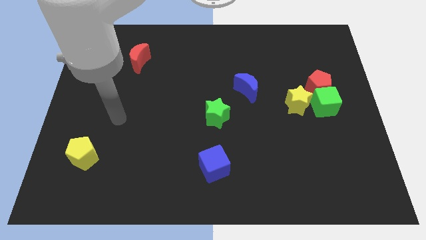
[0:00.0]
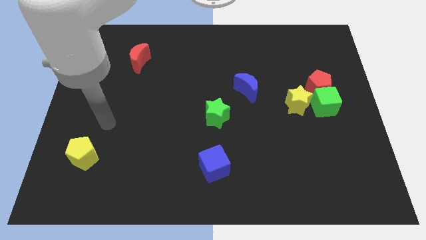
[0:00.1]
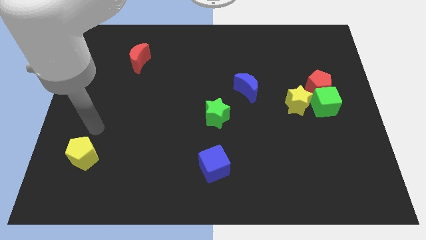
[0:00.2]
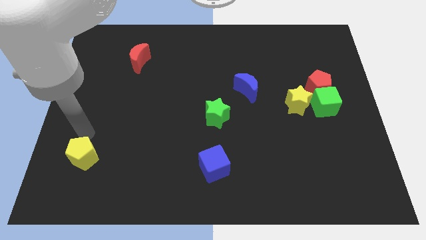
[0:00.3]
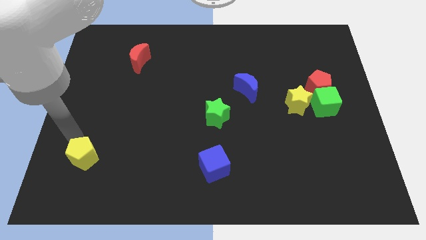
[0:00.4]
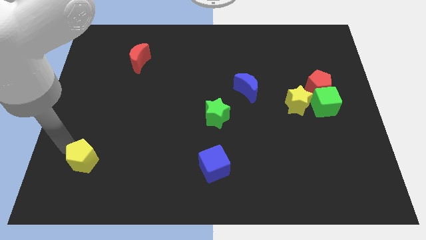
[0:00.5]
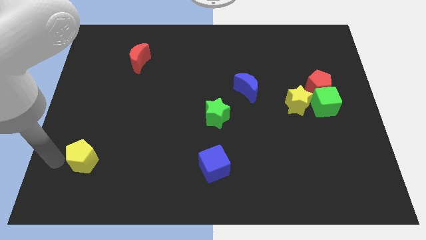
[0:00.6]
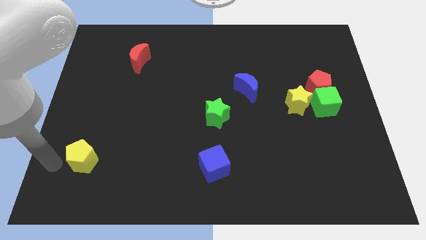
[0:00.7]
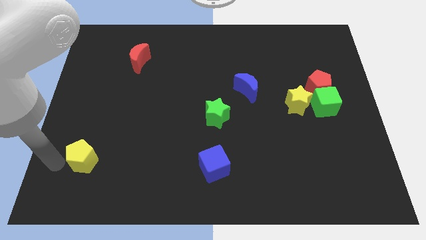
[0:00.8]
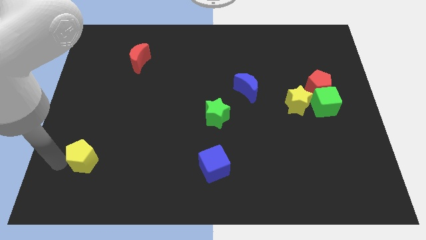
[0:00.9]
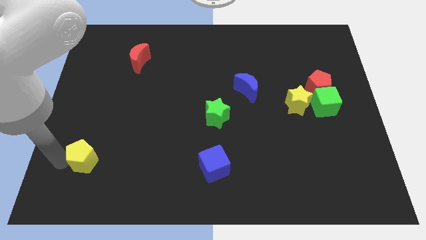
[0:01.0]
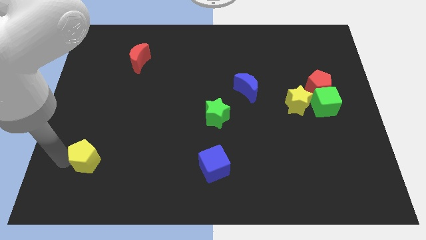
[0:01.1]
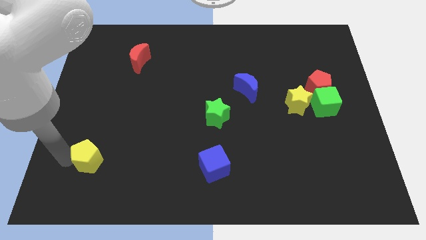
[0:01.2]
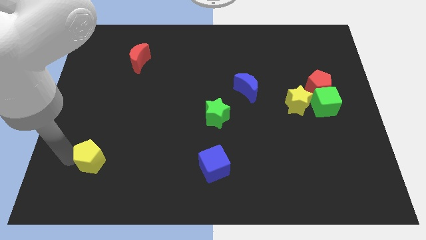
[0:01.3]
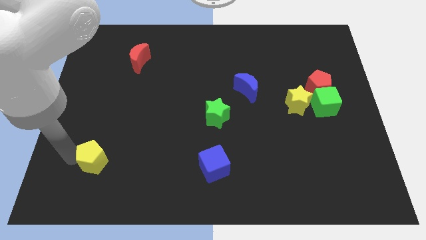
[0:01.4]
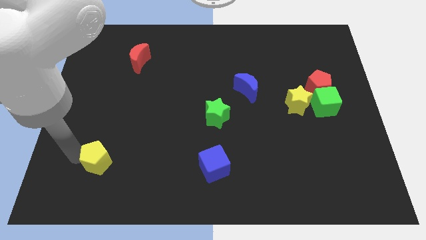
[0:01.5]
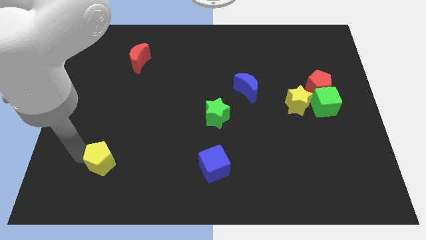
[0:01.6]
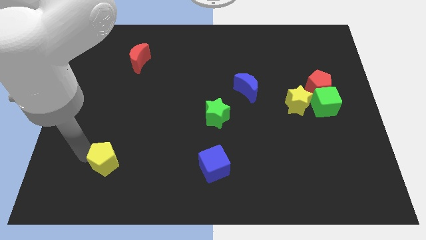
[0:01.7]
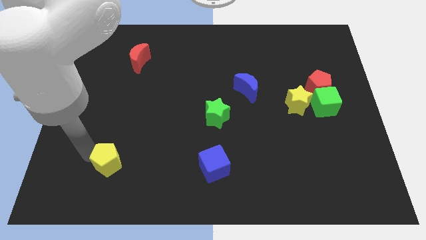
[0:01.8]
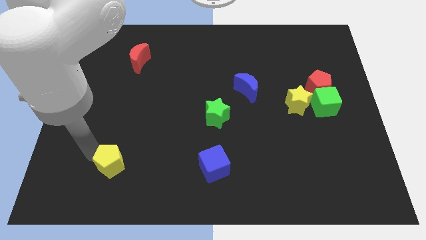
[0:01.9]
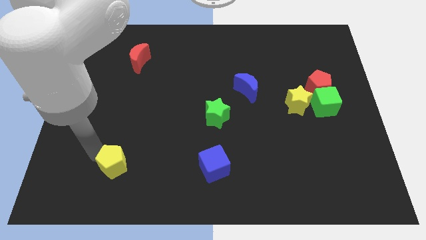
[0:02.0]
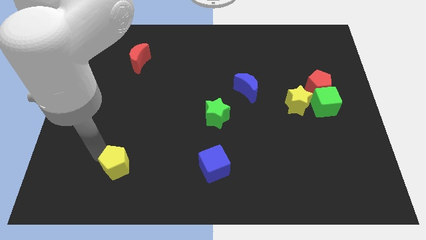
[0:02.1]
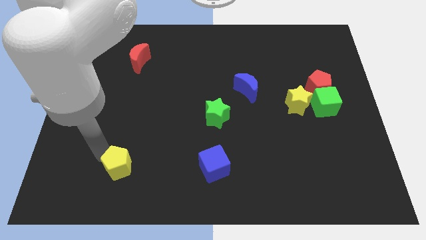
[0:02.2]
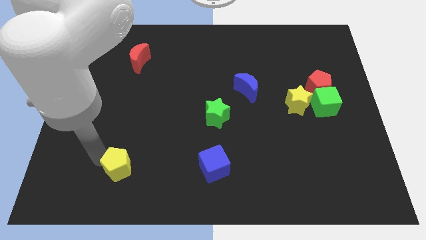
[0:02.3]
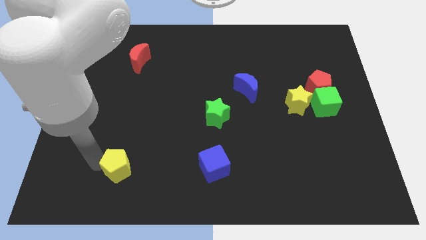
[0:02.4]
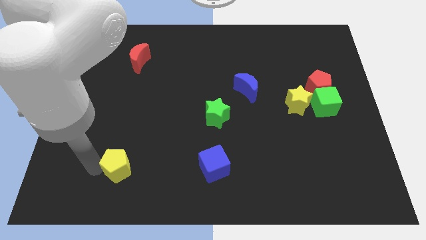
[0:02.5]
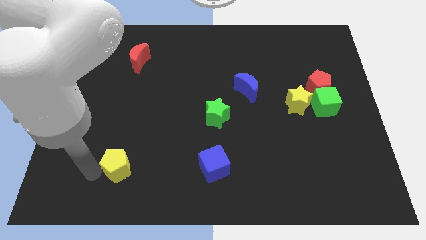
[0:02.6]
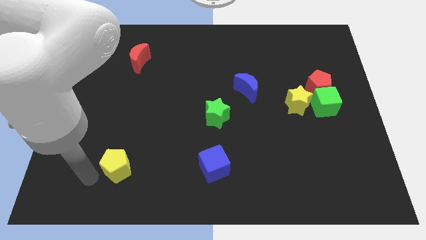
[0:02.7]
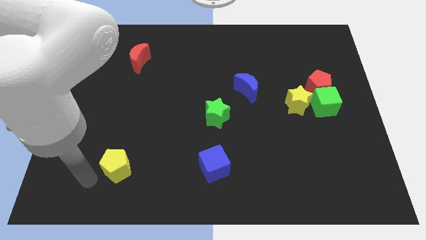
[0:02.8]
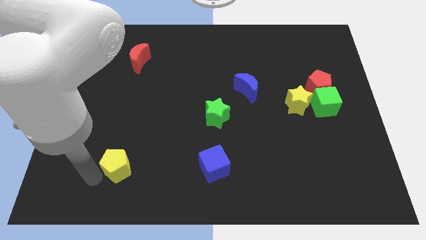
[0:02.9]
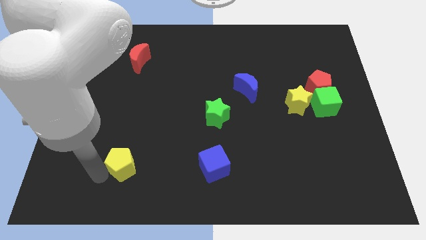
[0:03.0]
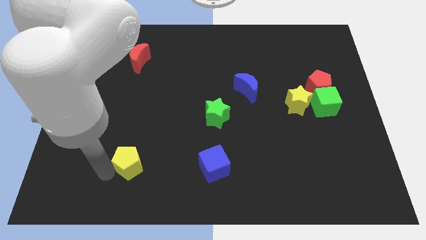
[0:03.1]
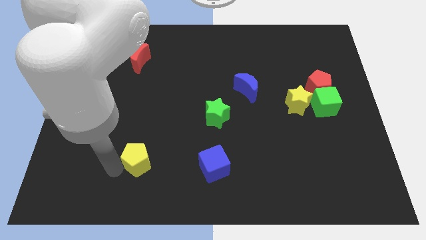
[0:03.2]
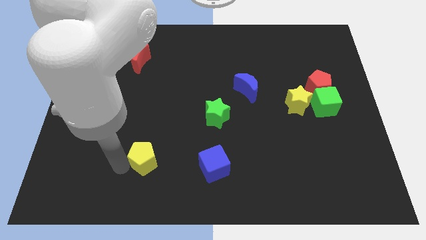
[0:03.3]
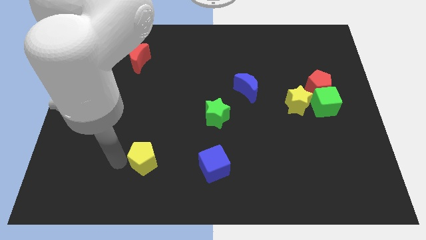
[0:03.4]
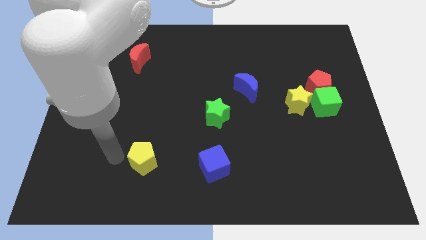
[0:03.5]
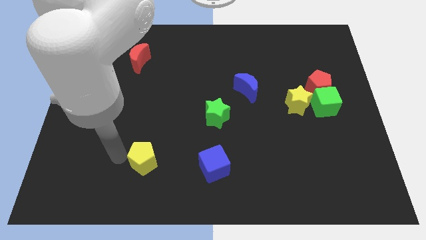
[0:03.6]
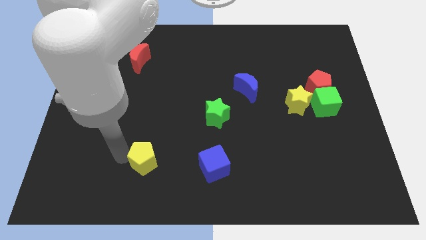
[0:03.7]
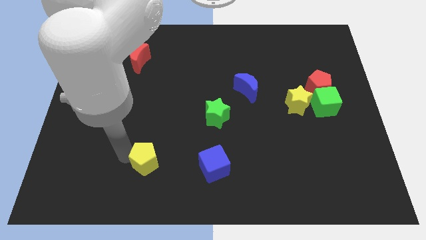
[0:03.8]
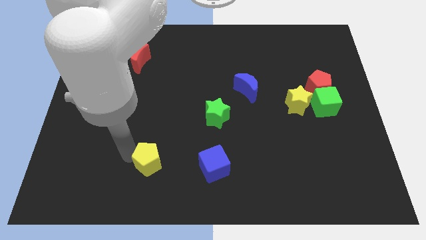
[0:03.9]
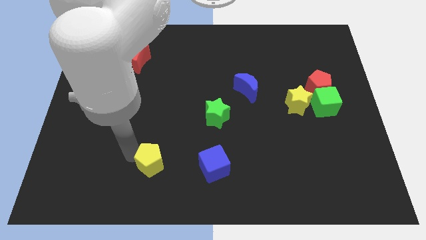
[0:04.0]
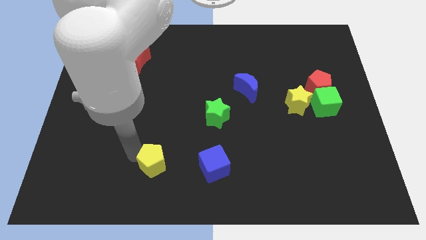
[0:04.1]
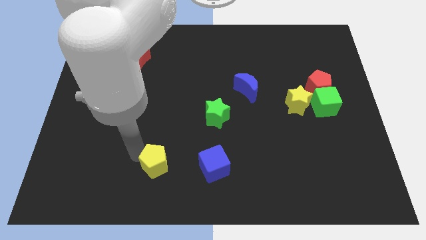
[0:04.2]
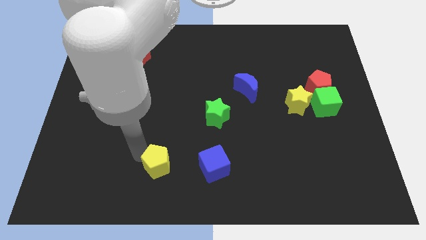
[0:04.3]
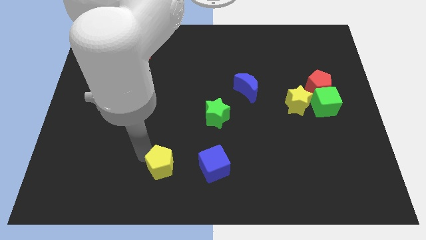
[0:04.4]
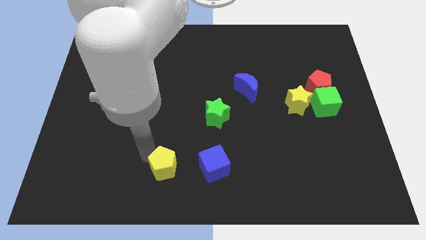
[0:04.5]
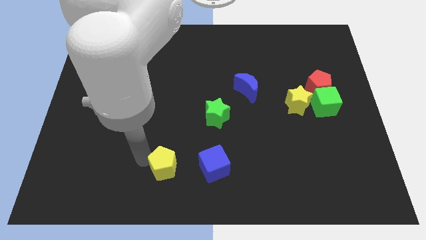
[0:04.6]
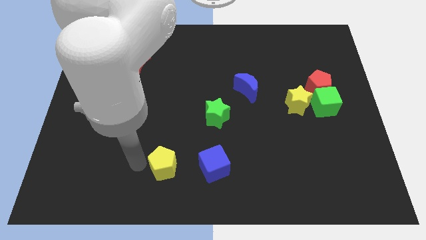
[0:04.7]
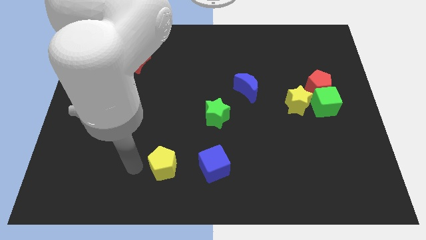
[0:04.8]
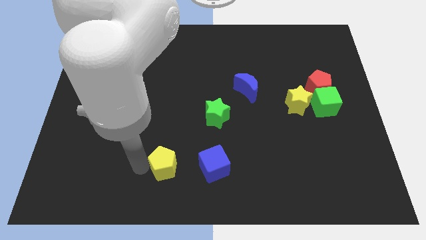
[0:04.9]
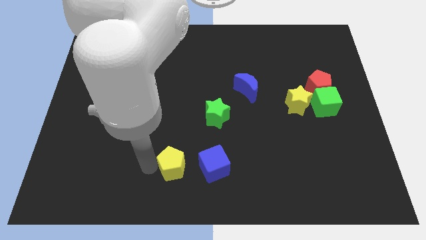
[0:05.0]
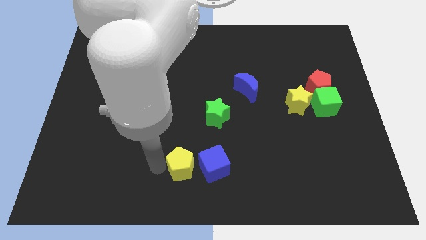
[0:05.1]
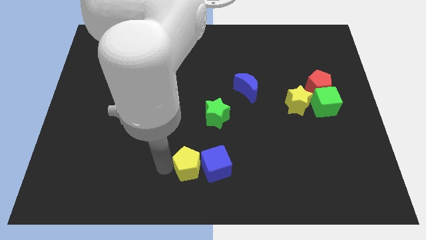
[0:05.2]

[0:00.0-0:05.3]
move the yellow pentagon to the blue cube

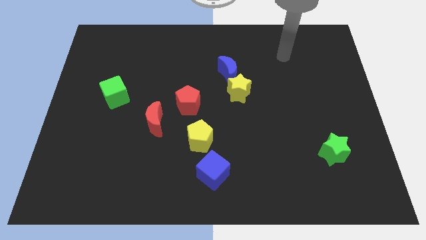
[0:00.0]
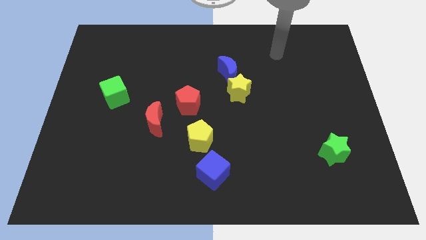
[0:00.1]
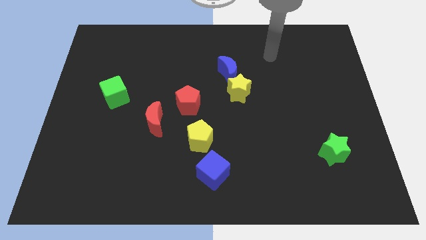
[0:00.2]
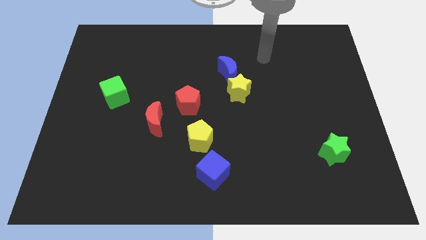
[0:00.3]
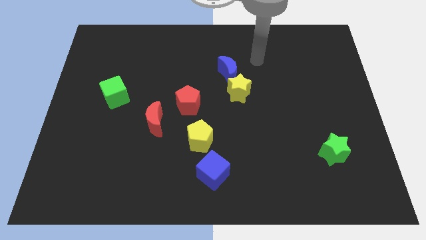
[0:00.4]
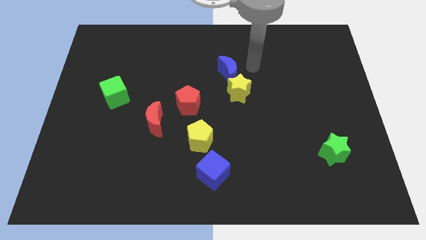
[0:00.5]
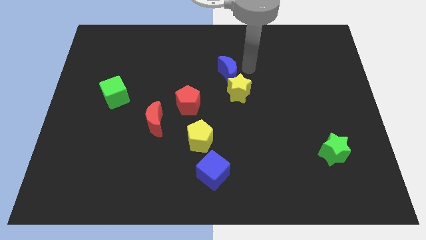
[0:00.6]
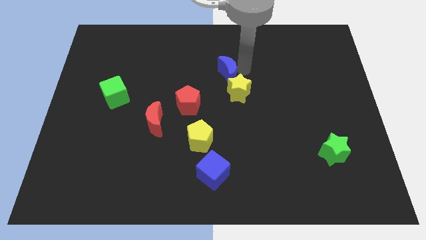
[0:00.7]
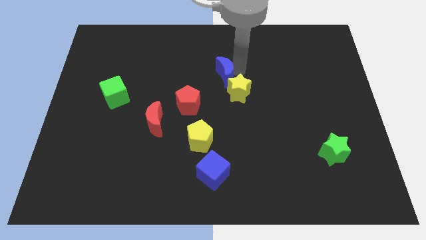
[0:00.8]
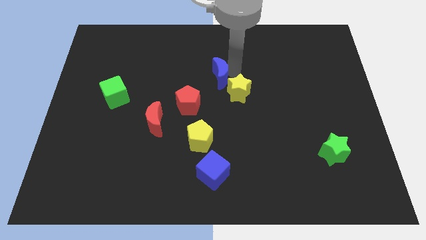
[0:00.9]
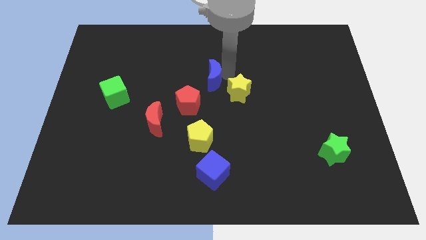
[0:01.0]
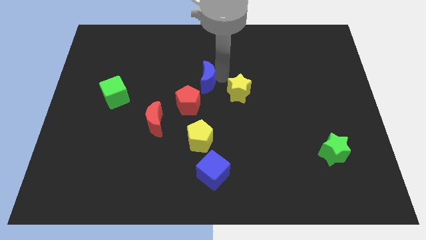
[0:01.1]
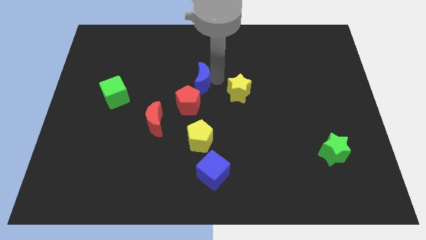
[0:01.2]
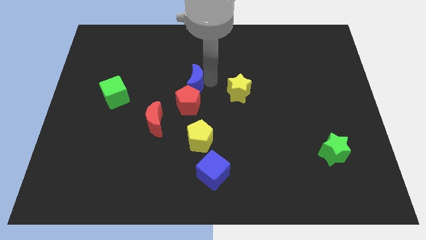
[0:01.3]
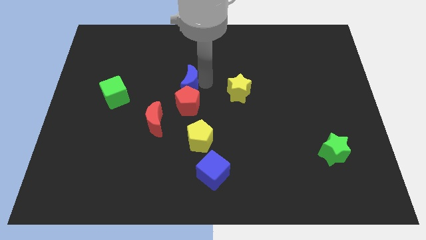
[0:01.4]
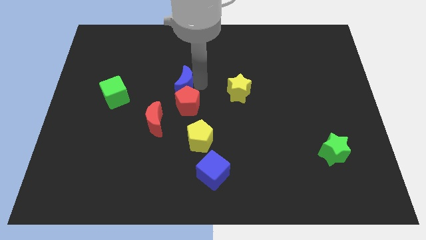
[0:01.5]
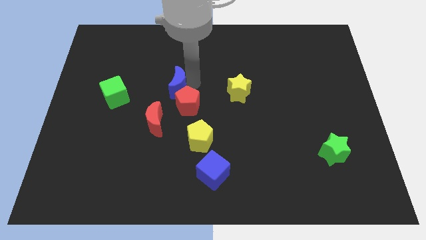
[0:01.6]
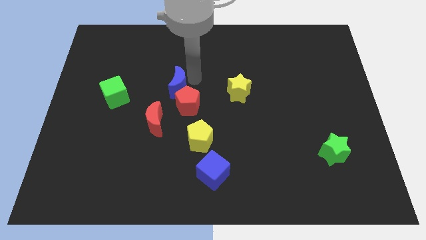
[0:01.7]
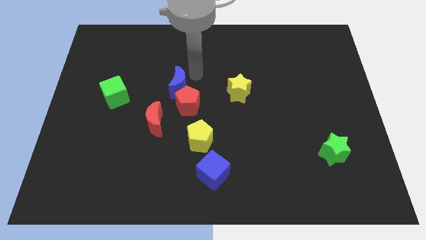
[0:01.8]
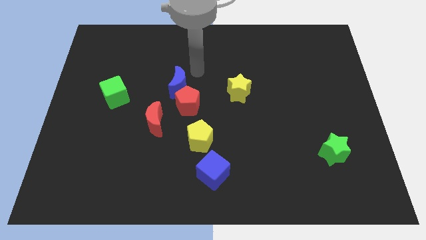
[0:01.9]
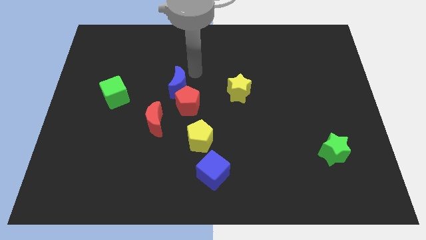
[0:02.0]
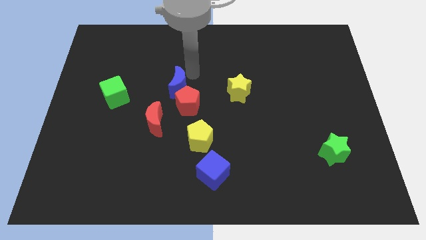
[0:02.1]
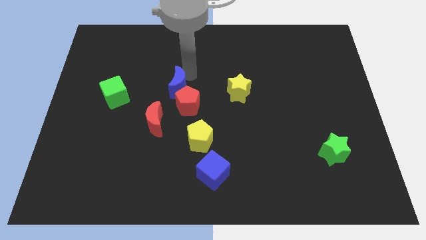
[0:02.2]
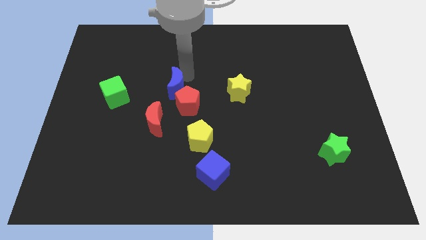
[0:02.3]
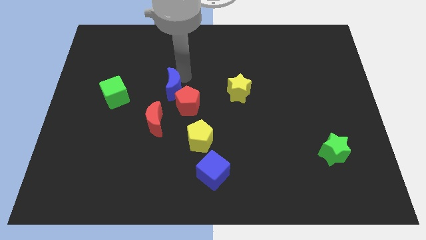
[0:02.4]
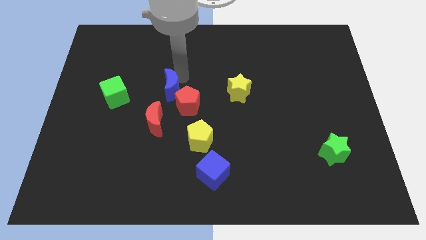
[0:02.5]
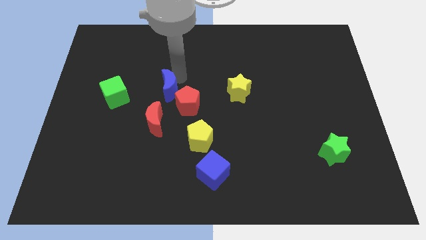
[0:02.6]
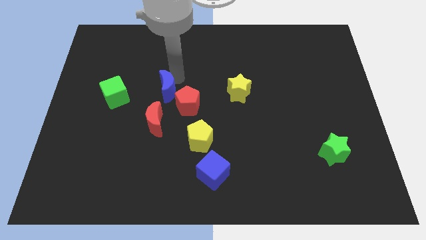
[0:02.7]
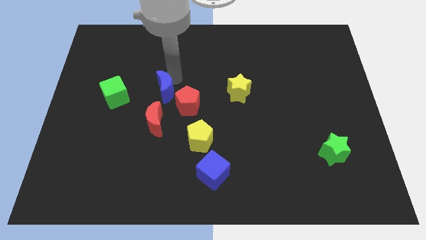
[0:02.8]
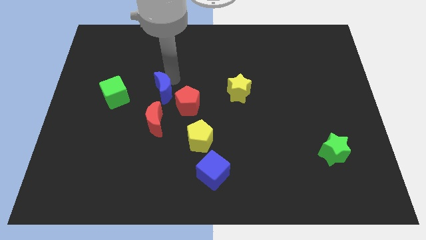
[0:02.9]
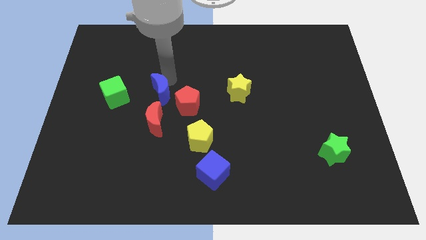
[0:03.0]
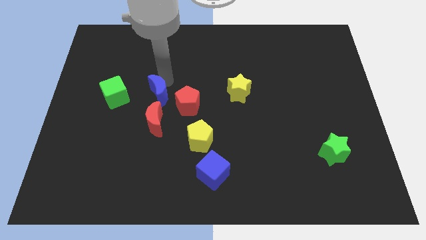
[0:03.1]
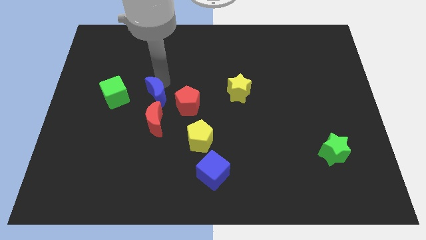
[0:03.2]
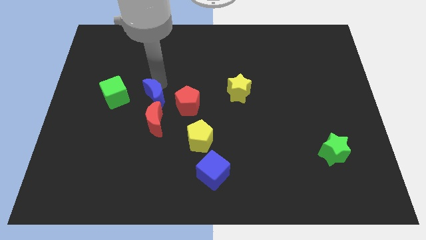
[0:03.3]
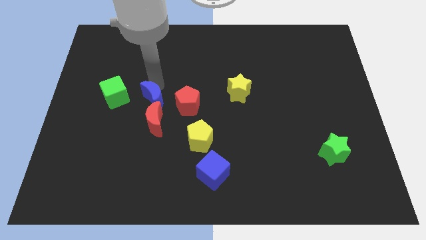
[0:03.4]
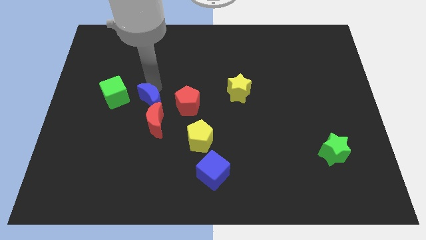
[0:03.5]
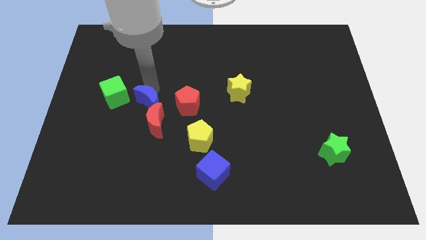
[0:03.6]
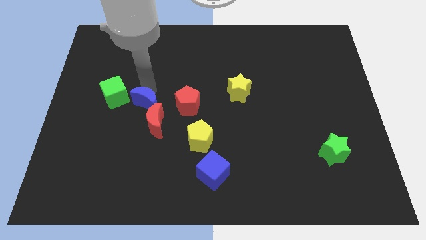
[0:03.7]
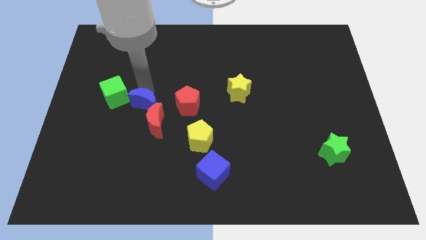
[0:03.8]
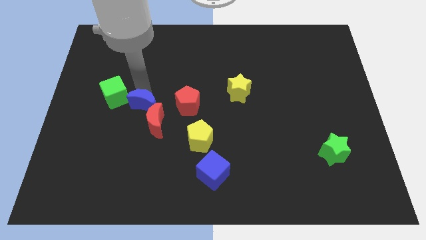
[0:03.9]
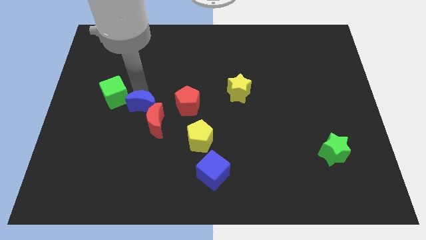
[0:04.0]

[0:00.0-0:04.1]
put the blue moon to the red moon
